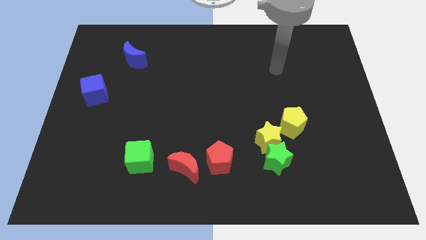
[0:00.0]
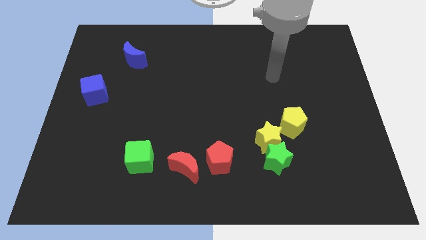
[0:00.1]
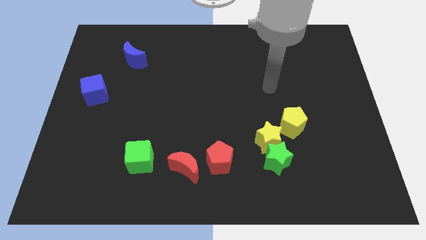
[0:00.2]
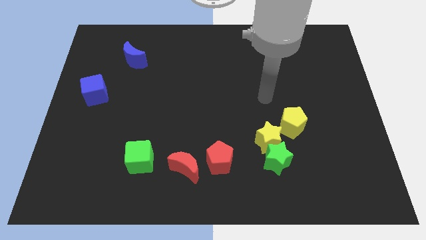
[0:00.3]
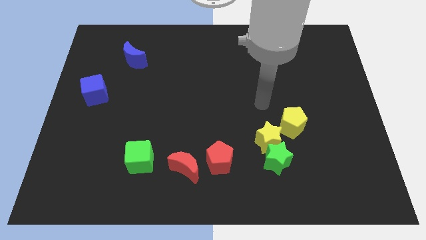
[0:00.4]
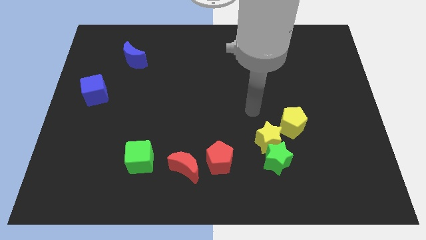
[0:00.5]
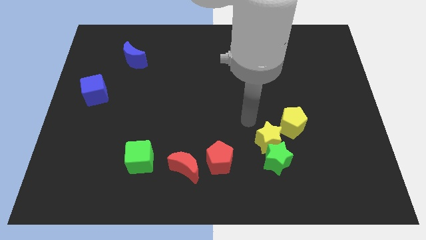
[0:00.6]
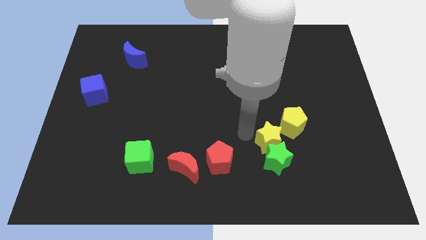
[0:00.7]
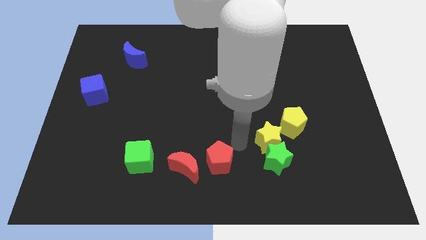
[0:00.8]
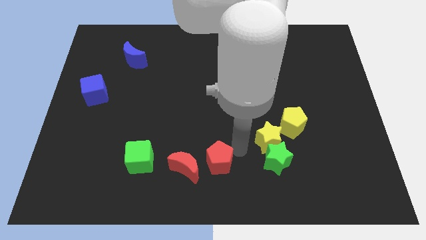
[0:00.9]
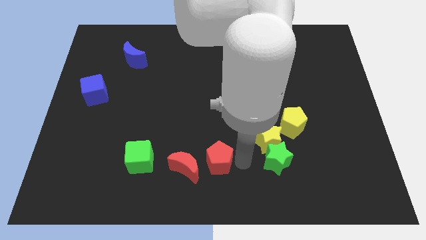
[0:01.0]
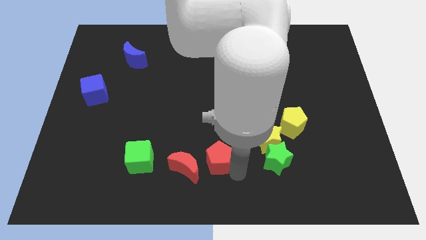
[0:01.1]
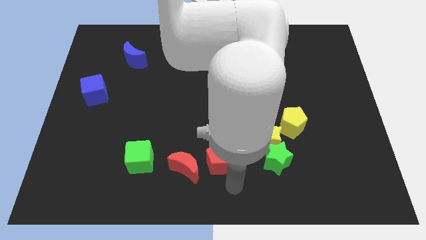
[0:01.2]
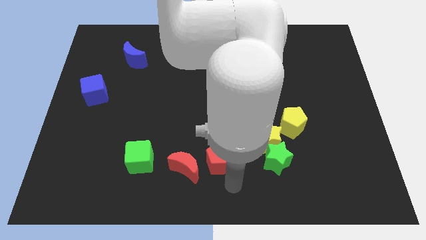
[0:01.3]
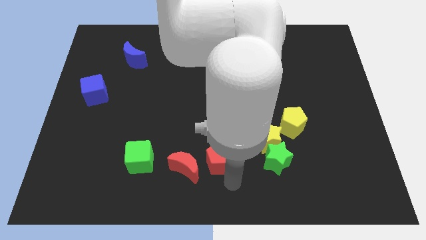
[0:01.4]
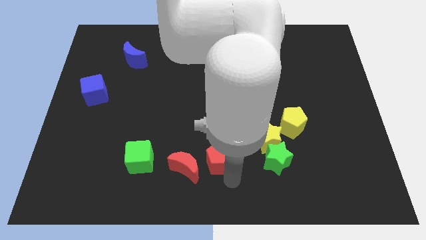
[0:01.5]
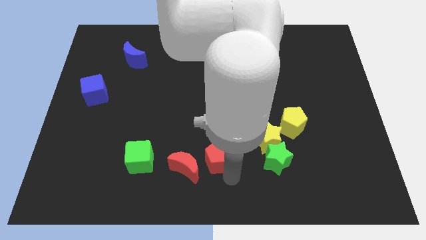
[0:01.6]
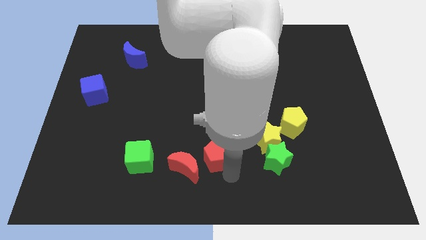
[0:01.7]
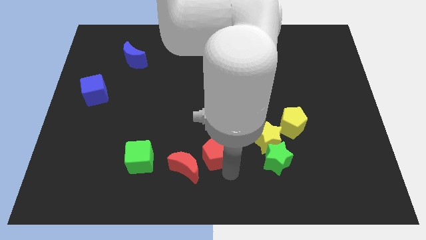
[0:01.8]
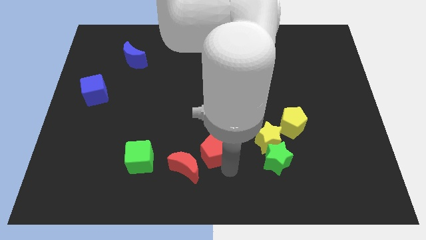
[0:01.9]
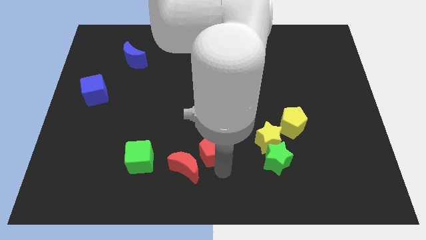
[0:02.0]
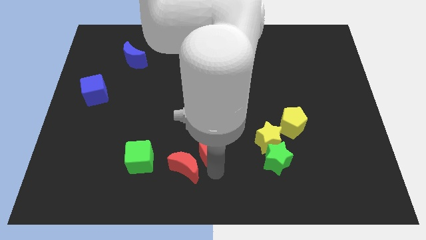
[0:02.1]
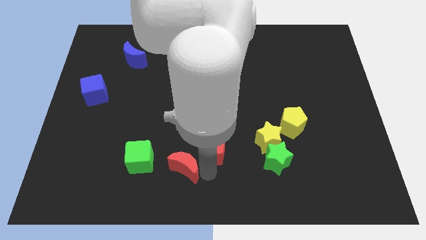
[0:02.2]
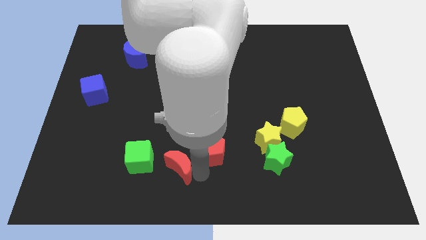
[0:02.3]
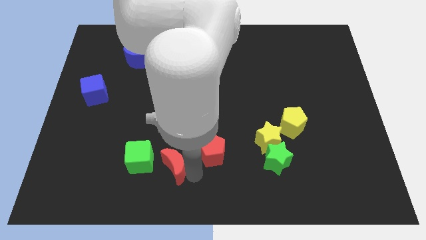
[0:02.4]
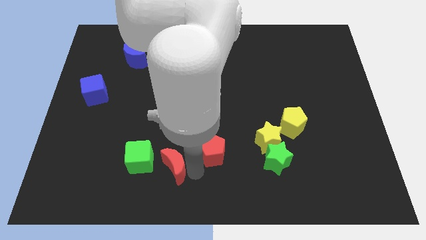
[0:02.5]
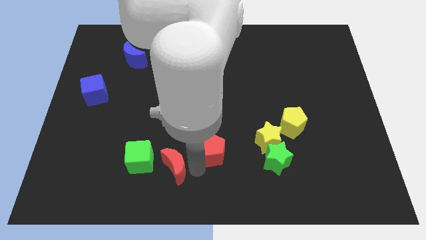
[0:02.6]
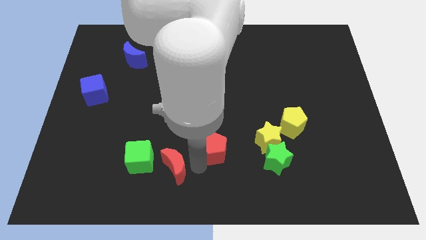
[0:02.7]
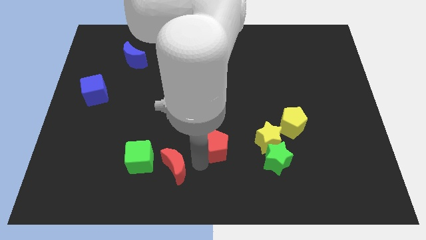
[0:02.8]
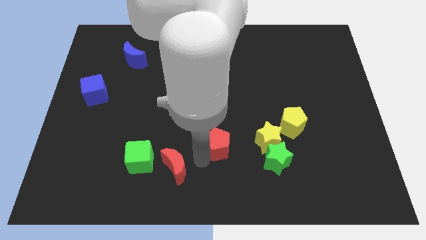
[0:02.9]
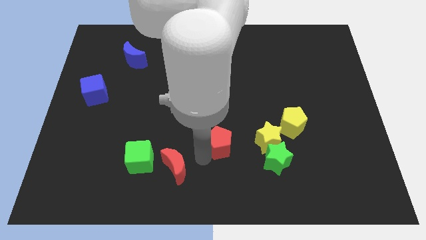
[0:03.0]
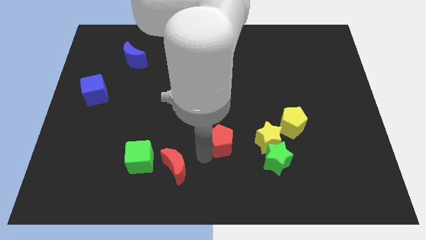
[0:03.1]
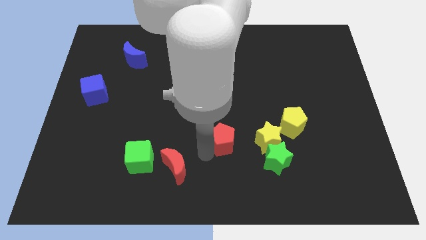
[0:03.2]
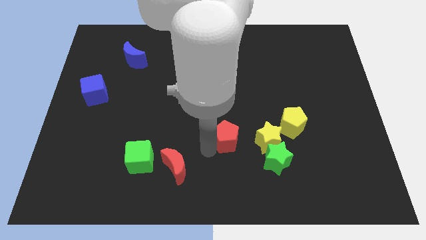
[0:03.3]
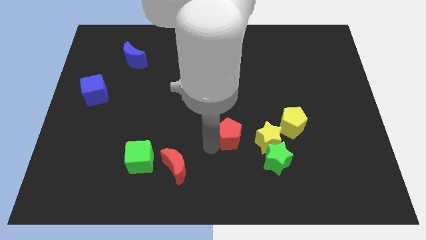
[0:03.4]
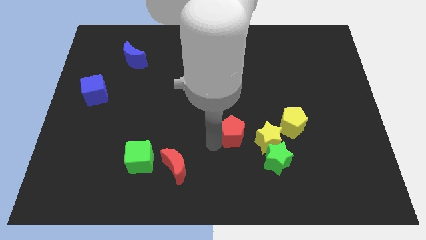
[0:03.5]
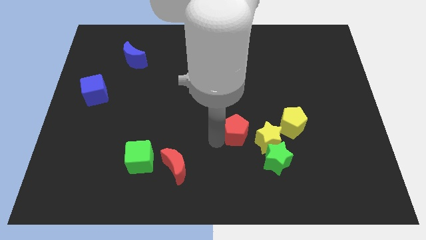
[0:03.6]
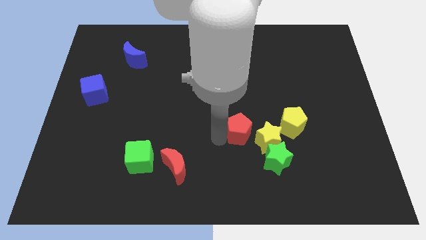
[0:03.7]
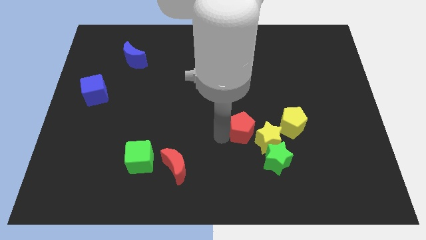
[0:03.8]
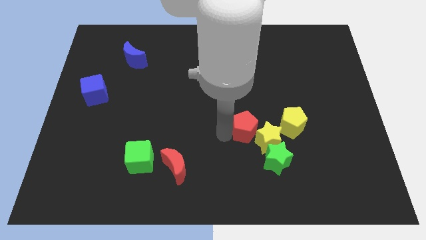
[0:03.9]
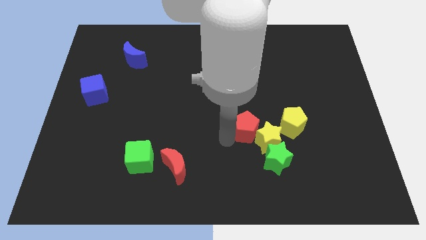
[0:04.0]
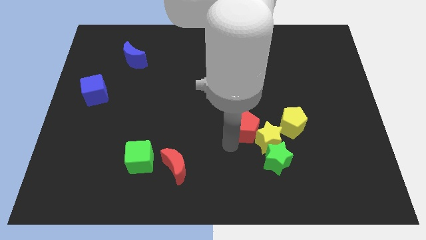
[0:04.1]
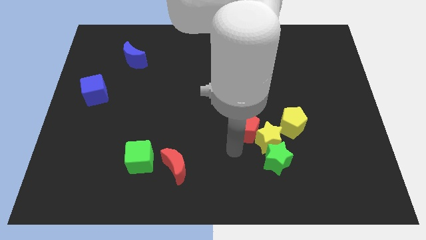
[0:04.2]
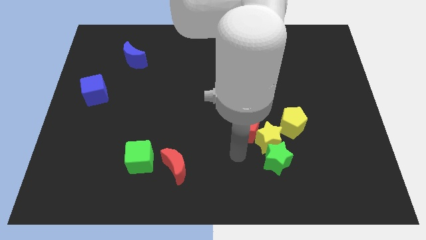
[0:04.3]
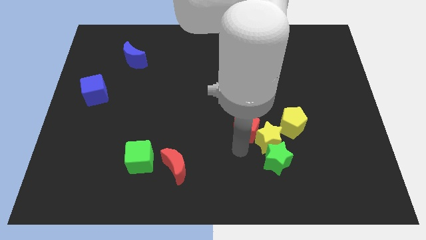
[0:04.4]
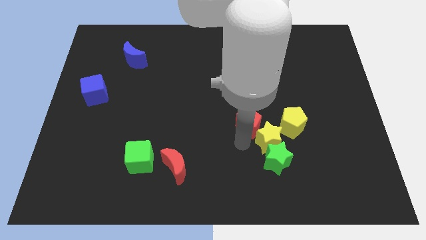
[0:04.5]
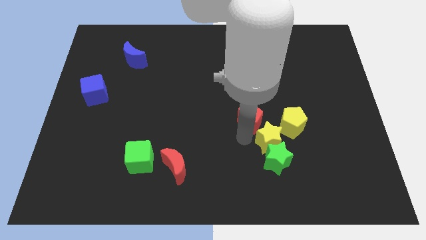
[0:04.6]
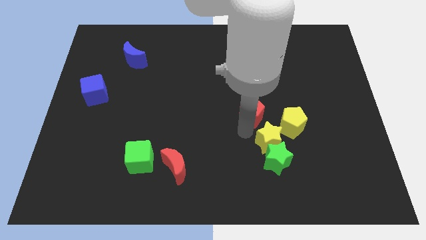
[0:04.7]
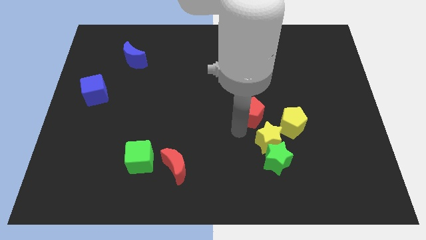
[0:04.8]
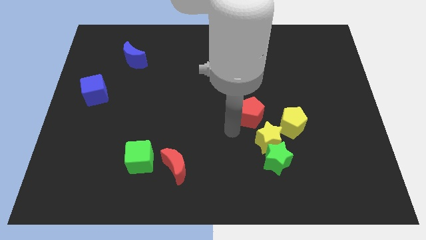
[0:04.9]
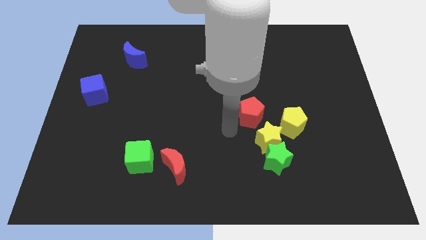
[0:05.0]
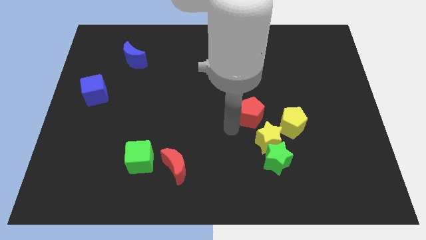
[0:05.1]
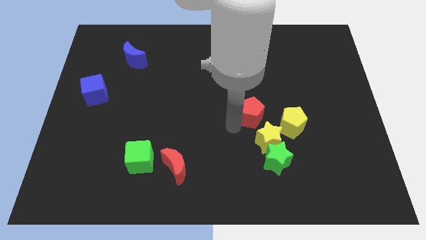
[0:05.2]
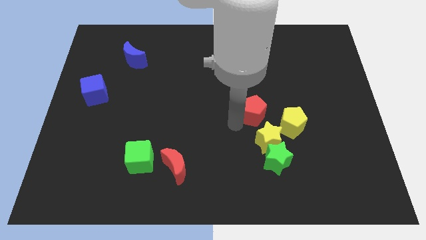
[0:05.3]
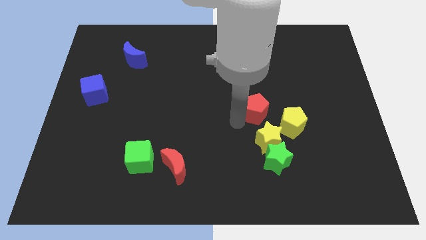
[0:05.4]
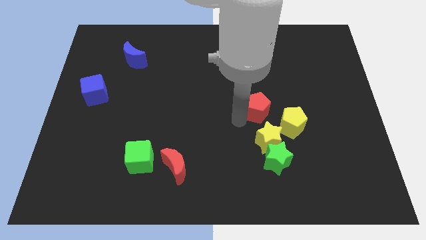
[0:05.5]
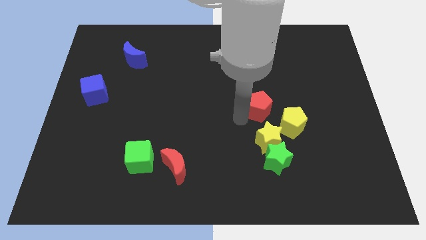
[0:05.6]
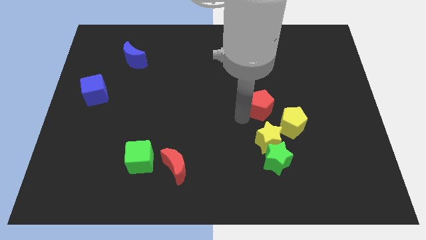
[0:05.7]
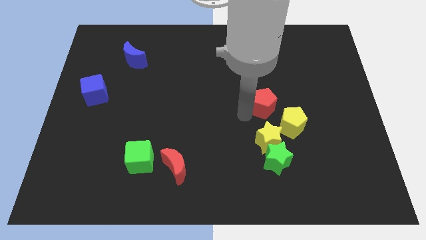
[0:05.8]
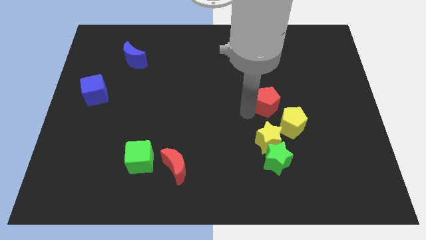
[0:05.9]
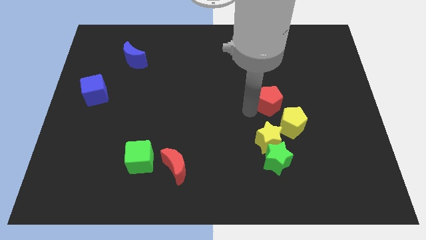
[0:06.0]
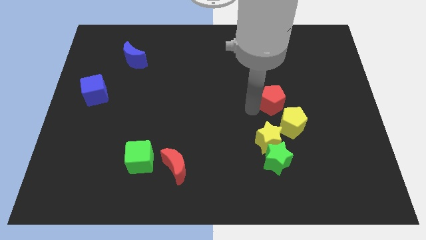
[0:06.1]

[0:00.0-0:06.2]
move the red pentagon diagonally upwards and to the right

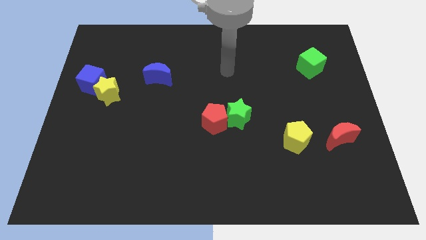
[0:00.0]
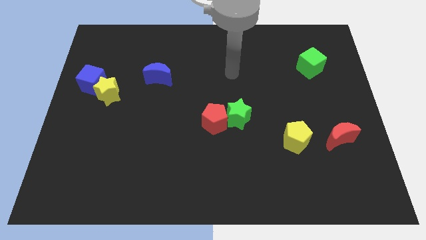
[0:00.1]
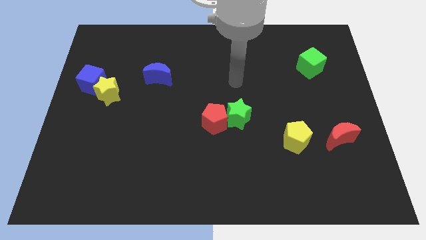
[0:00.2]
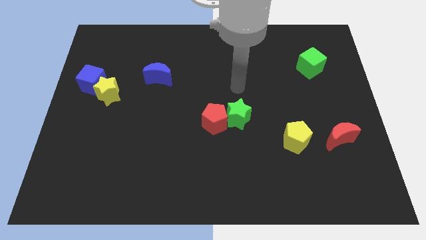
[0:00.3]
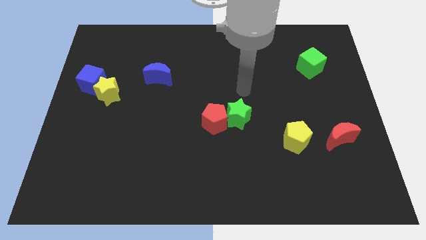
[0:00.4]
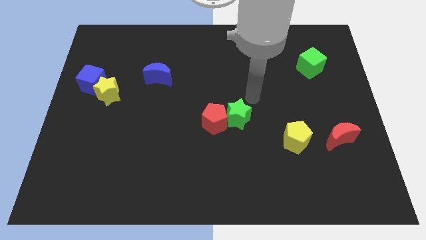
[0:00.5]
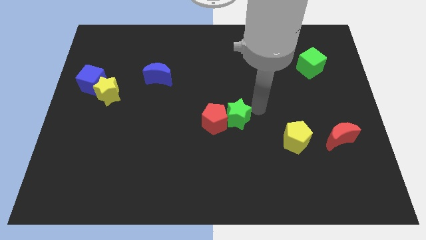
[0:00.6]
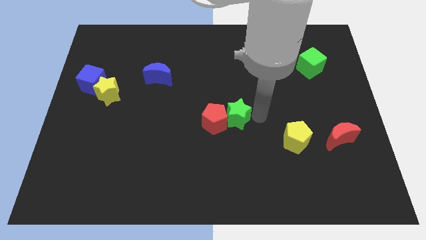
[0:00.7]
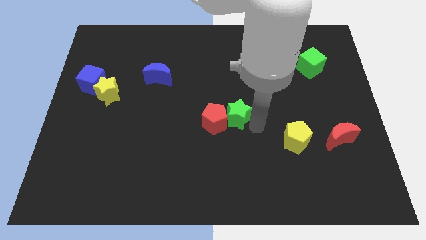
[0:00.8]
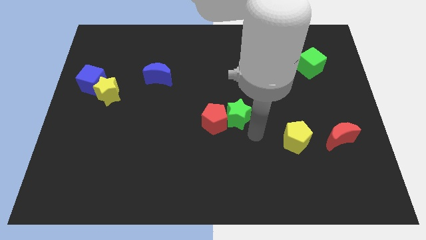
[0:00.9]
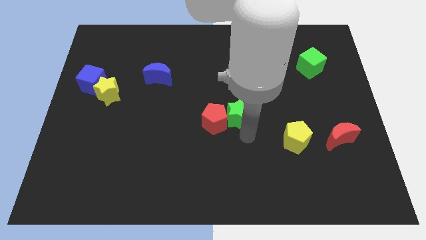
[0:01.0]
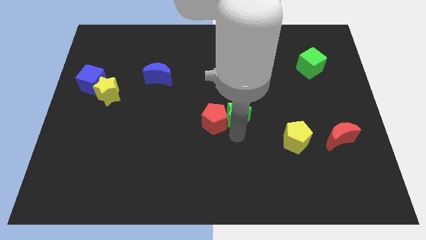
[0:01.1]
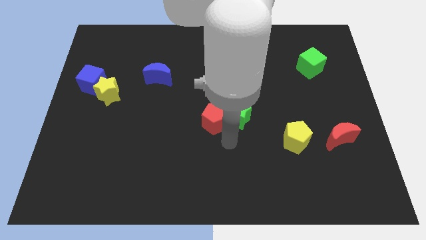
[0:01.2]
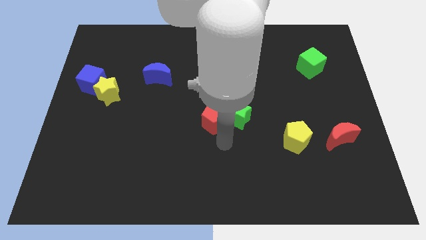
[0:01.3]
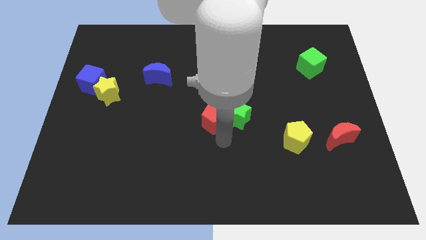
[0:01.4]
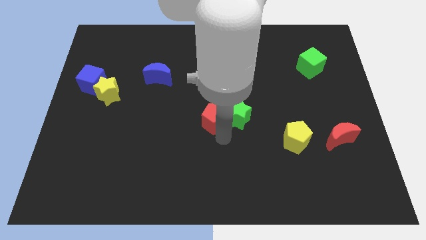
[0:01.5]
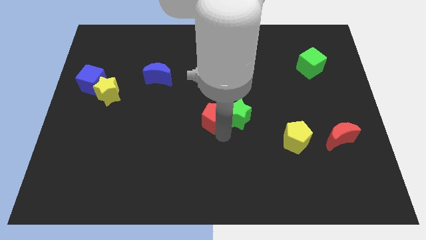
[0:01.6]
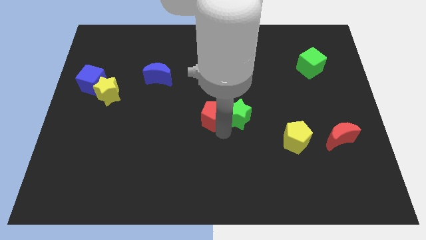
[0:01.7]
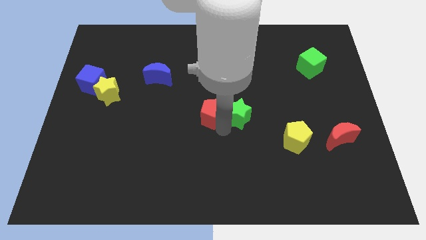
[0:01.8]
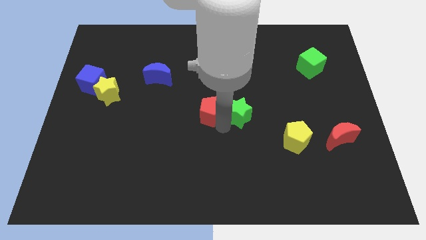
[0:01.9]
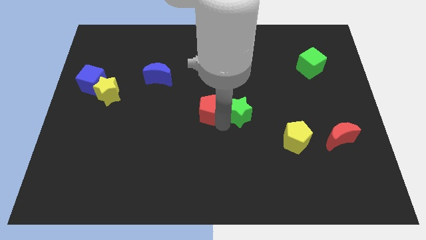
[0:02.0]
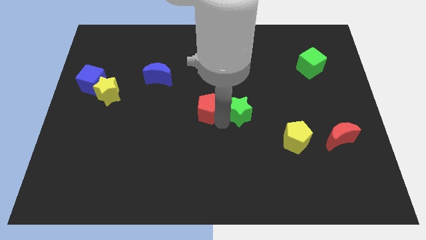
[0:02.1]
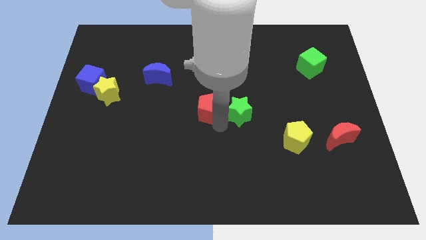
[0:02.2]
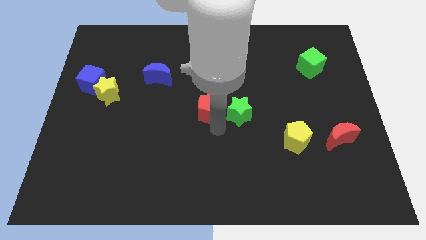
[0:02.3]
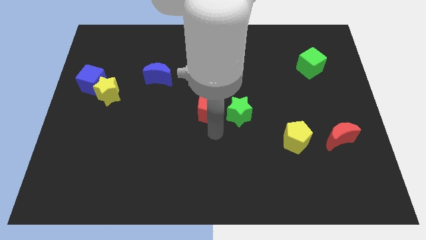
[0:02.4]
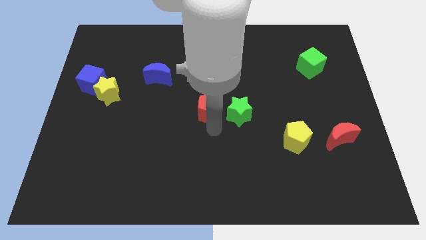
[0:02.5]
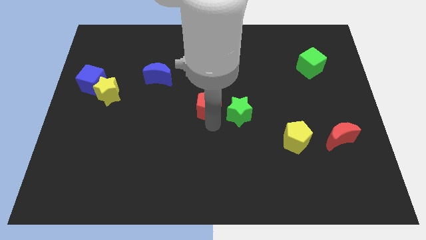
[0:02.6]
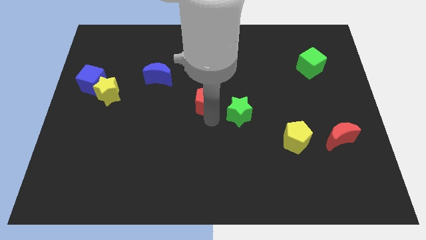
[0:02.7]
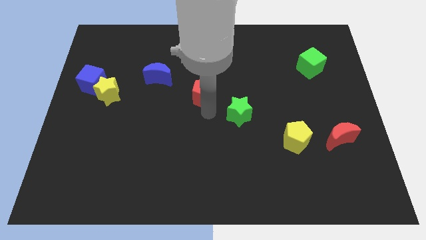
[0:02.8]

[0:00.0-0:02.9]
push the red pentagon upwards slightly
